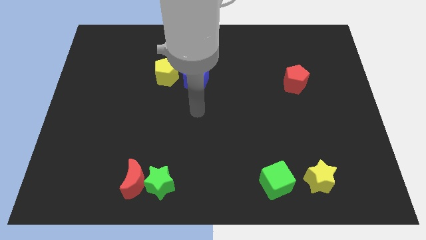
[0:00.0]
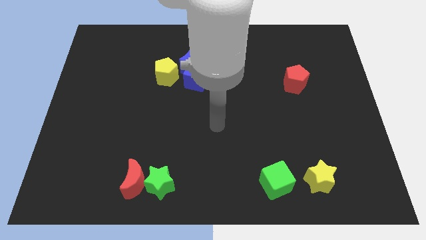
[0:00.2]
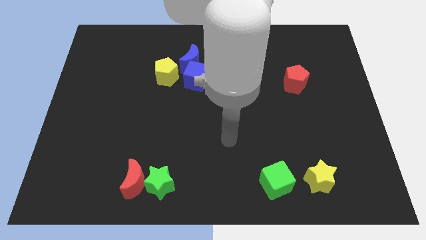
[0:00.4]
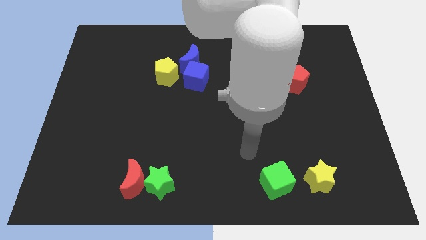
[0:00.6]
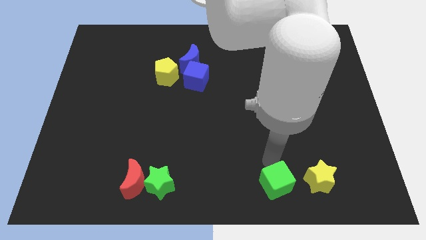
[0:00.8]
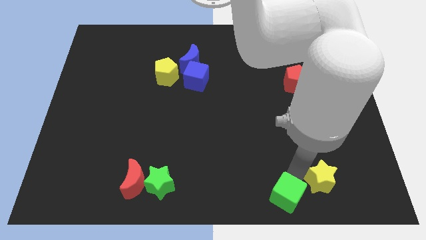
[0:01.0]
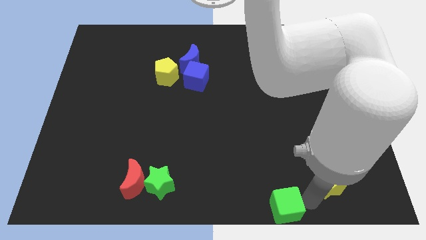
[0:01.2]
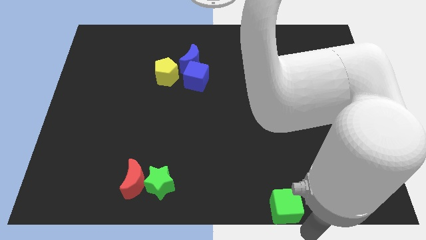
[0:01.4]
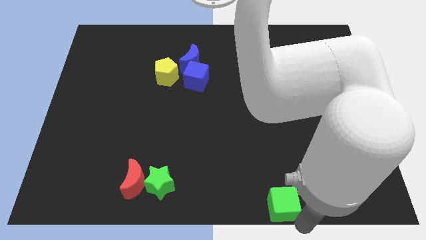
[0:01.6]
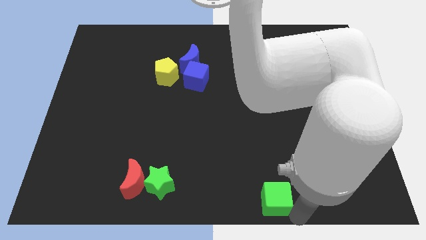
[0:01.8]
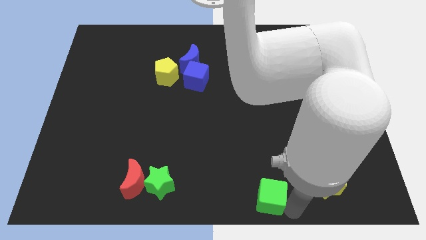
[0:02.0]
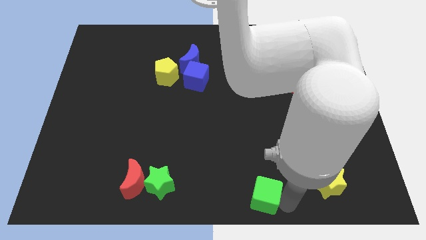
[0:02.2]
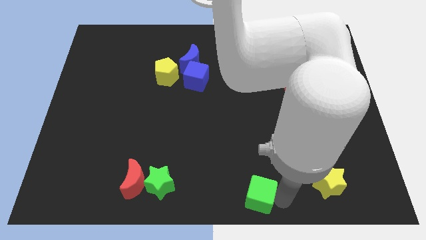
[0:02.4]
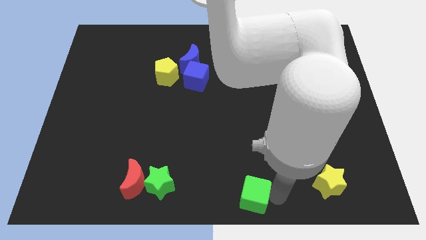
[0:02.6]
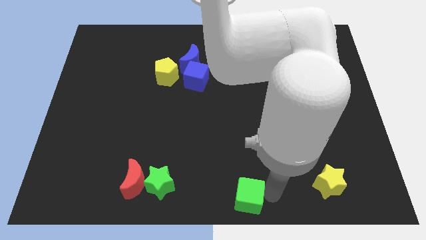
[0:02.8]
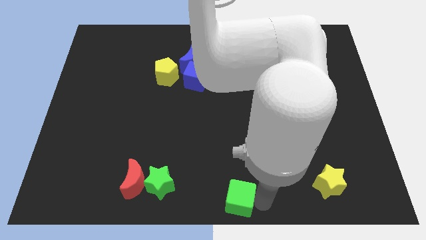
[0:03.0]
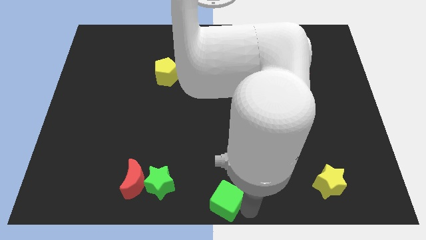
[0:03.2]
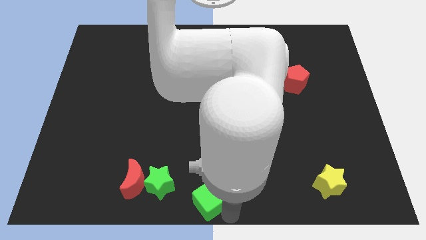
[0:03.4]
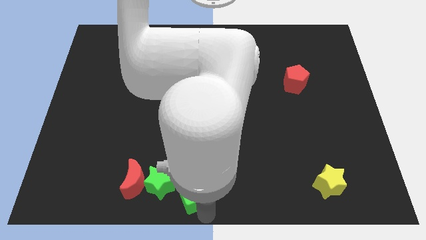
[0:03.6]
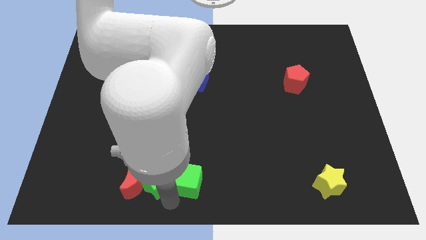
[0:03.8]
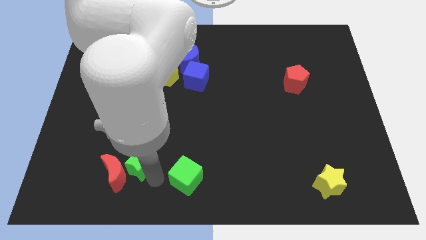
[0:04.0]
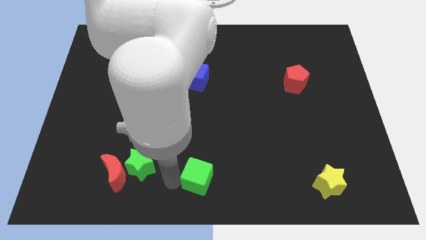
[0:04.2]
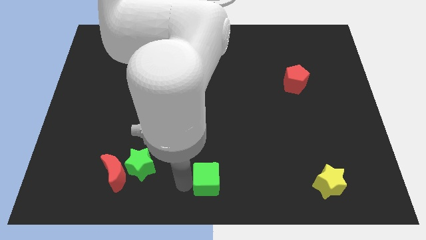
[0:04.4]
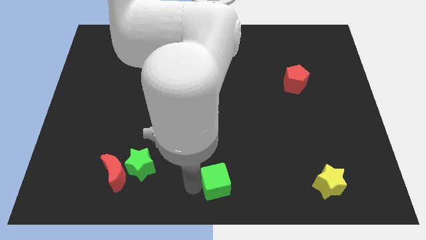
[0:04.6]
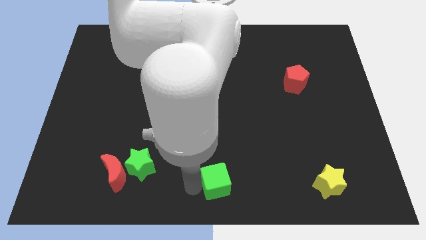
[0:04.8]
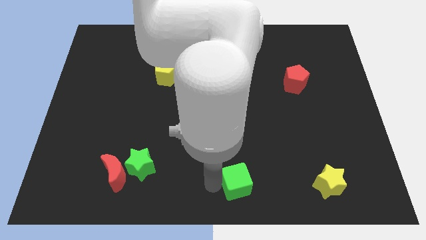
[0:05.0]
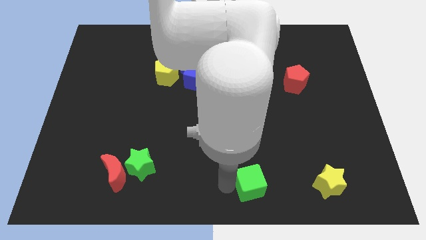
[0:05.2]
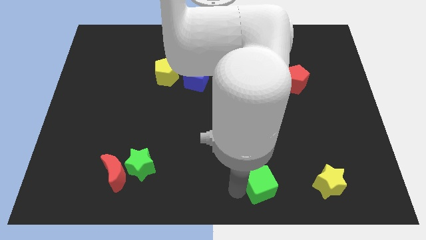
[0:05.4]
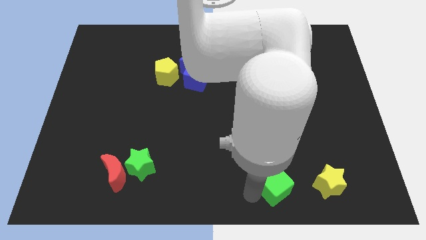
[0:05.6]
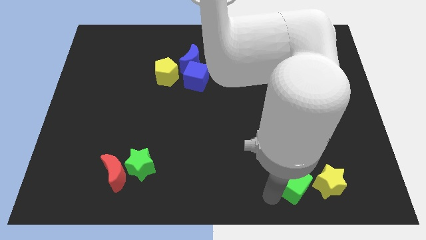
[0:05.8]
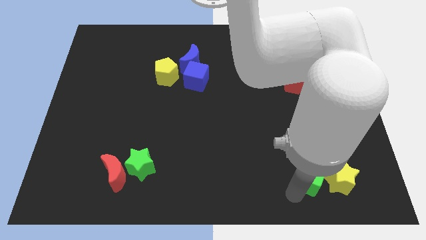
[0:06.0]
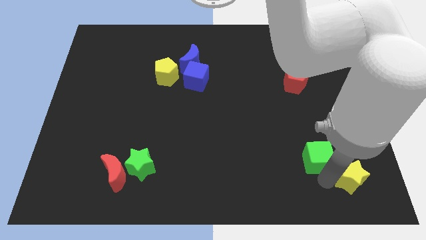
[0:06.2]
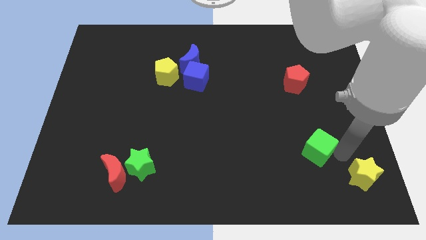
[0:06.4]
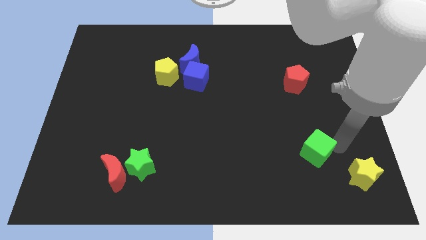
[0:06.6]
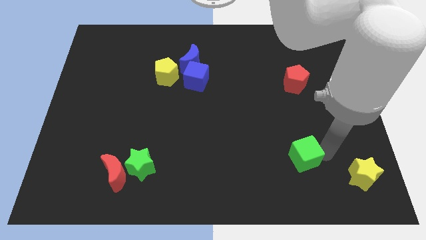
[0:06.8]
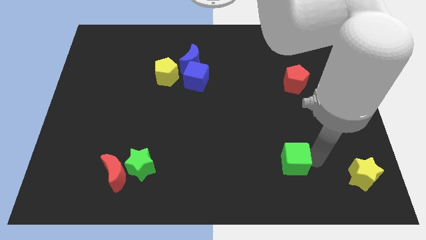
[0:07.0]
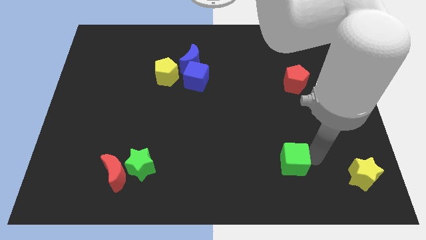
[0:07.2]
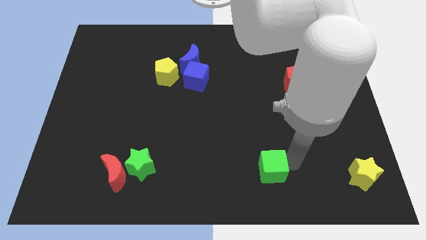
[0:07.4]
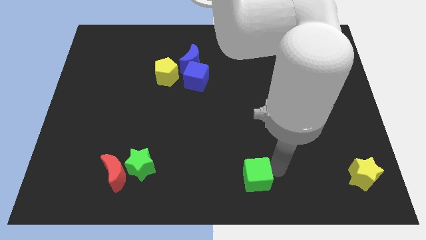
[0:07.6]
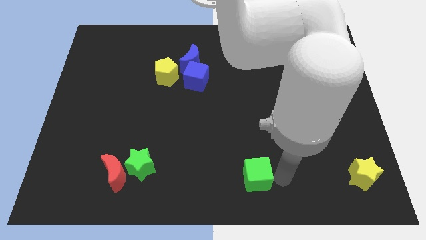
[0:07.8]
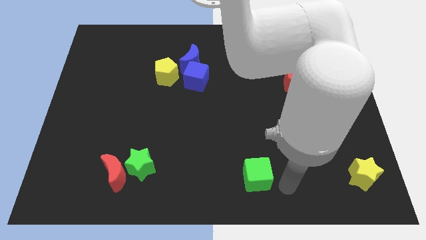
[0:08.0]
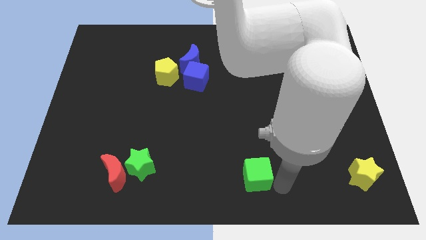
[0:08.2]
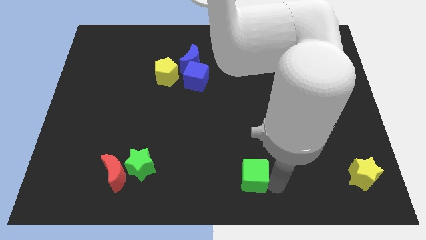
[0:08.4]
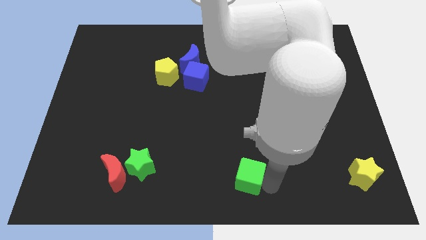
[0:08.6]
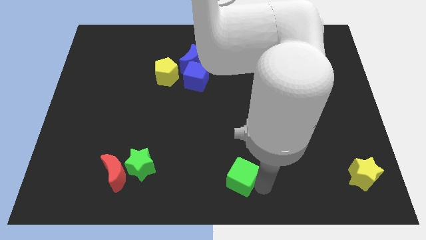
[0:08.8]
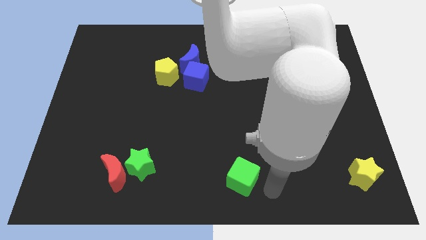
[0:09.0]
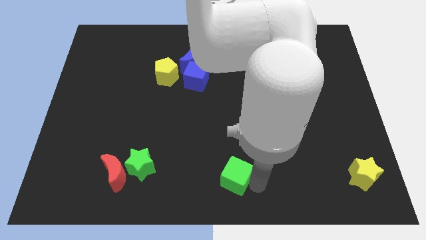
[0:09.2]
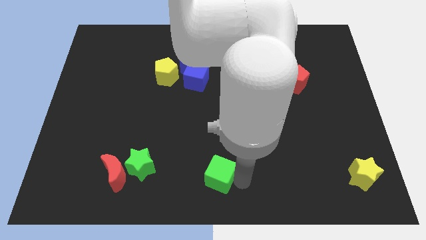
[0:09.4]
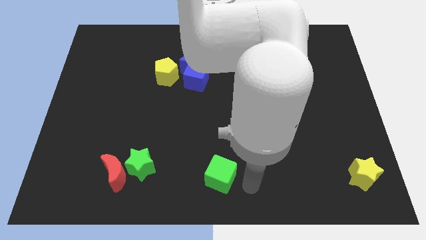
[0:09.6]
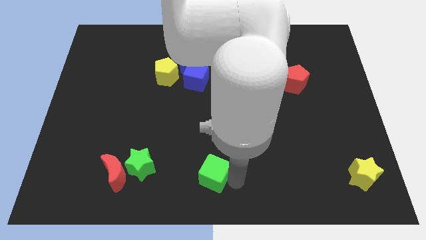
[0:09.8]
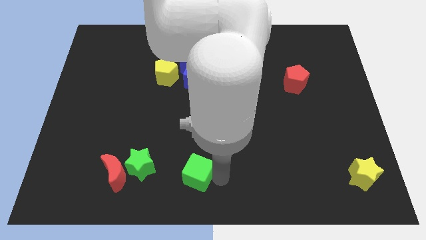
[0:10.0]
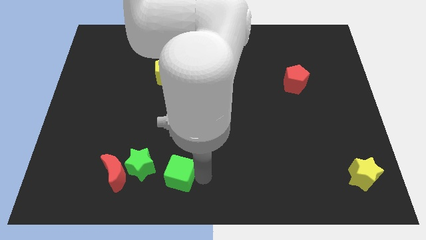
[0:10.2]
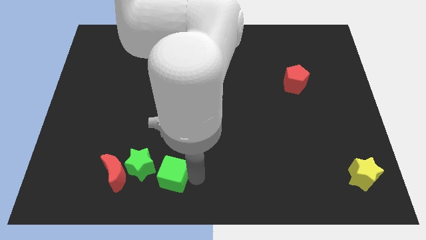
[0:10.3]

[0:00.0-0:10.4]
slide the green cube left

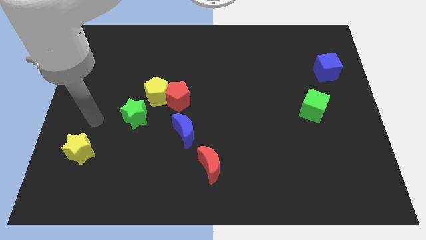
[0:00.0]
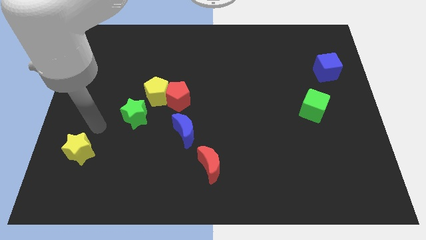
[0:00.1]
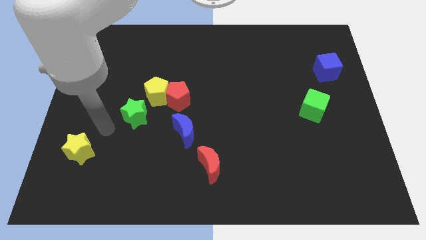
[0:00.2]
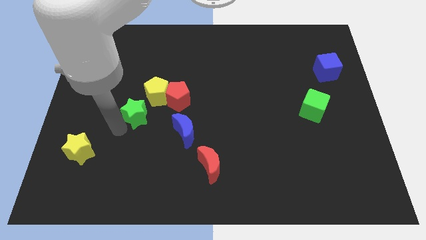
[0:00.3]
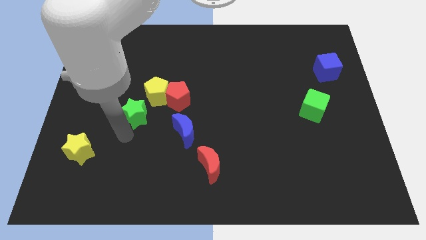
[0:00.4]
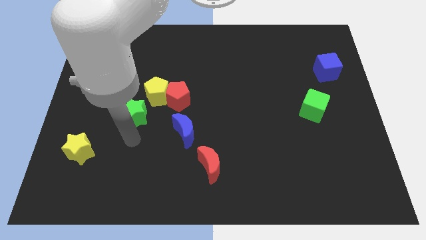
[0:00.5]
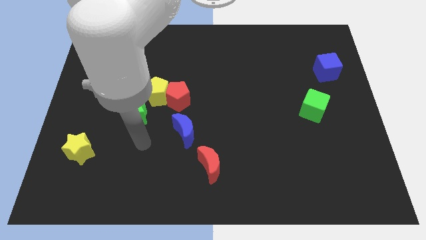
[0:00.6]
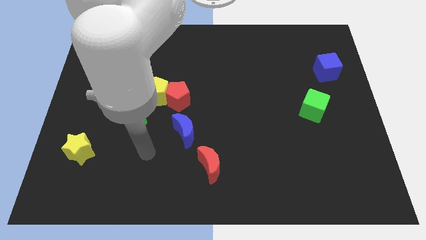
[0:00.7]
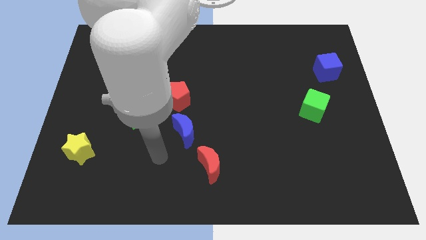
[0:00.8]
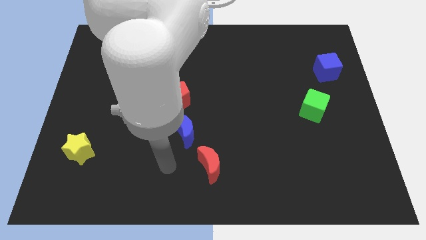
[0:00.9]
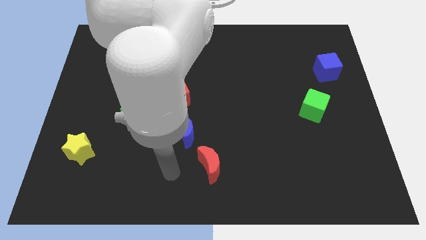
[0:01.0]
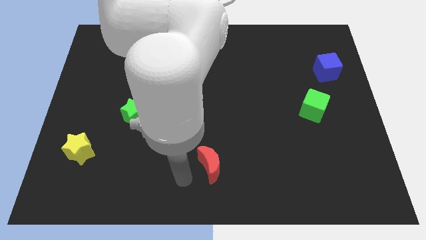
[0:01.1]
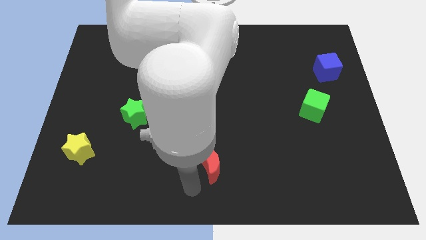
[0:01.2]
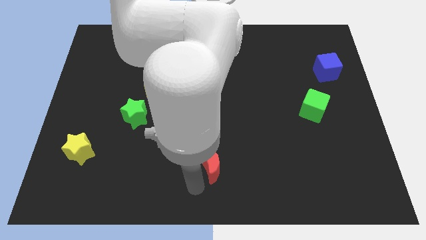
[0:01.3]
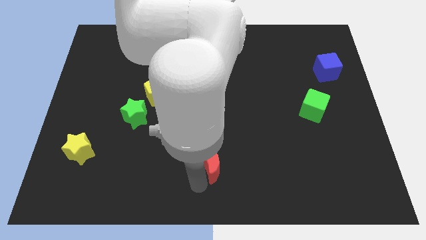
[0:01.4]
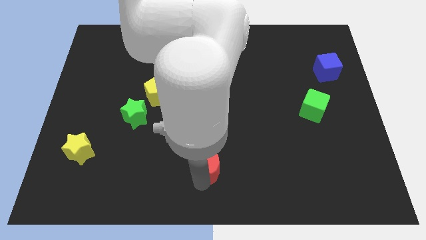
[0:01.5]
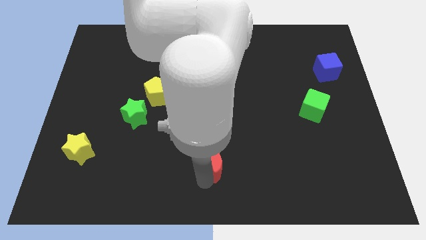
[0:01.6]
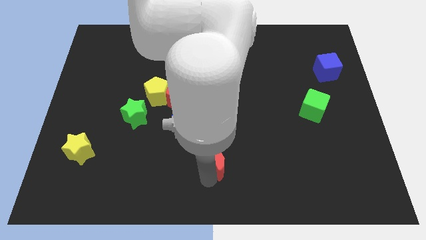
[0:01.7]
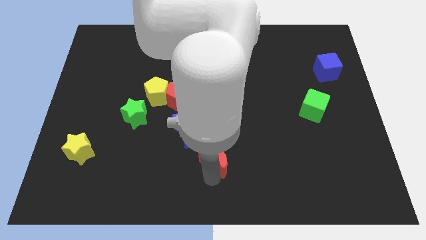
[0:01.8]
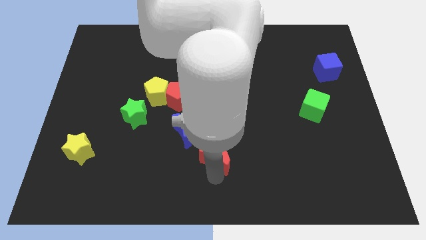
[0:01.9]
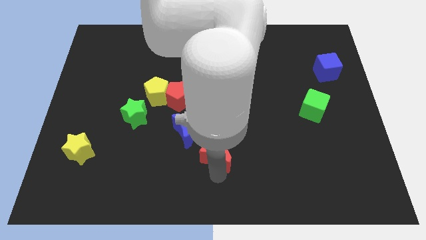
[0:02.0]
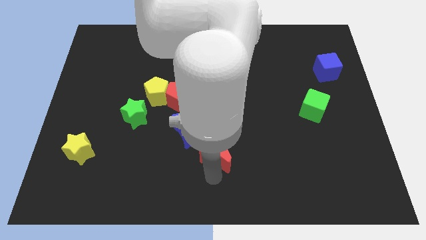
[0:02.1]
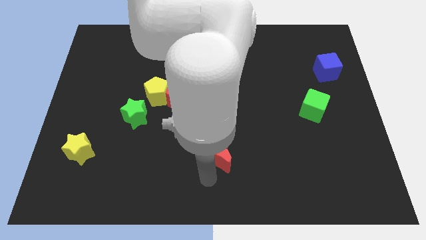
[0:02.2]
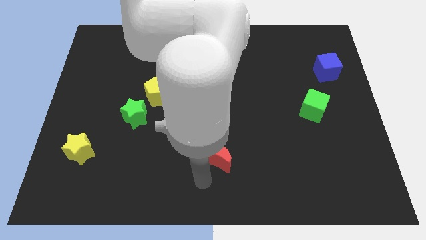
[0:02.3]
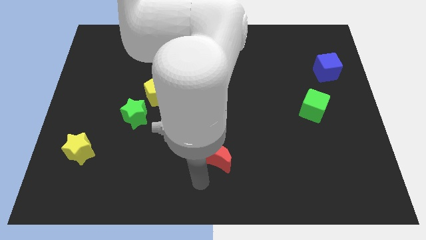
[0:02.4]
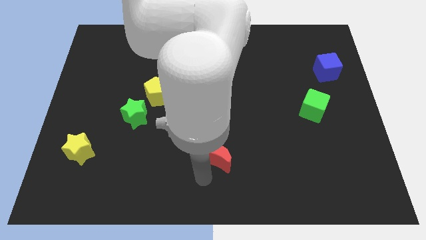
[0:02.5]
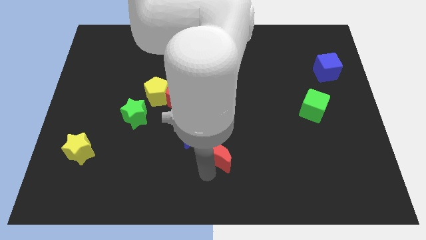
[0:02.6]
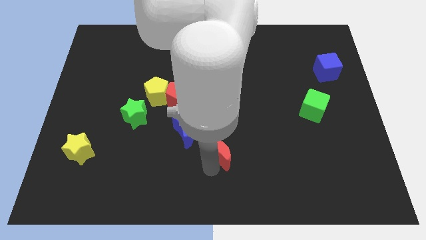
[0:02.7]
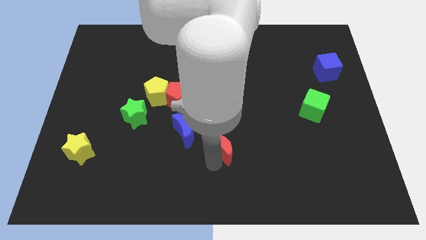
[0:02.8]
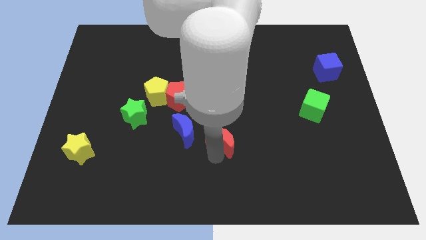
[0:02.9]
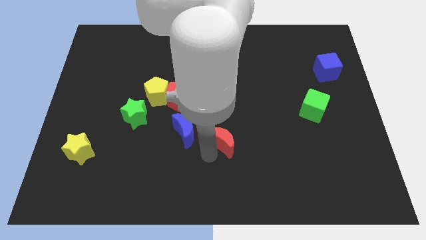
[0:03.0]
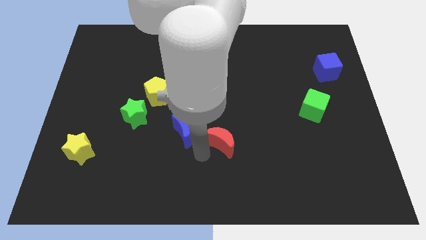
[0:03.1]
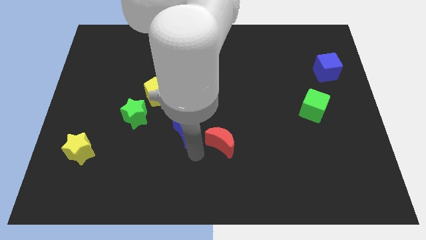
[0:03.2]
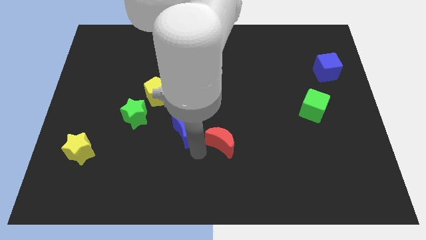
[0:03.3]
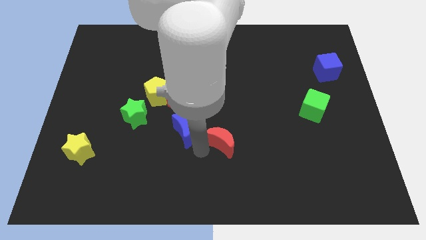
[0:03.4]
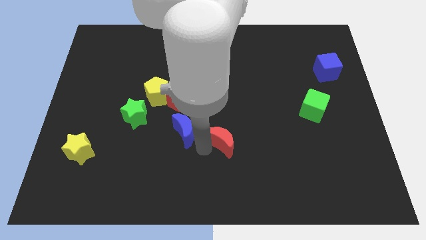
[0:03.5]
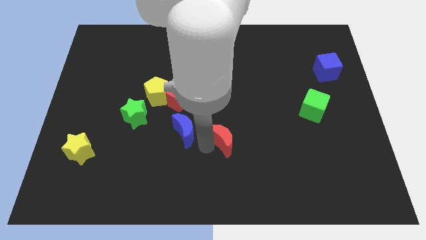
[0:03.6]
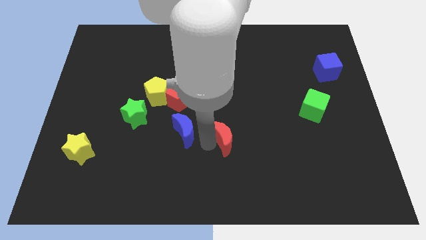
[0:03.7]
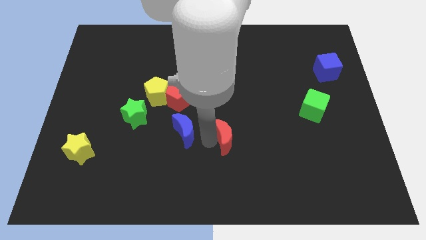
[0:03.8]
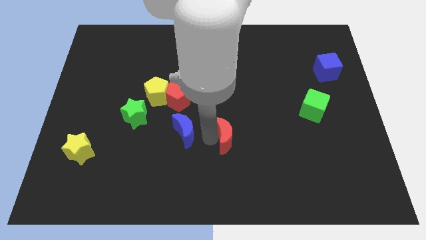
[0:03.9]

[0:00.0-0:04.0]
slide the red moon up and right somewhat
